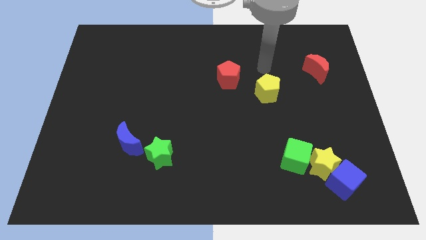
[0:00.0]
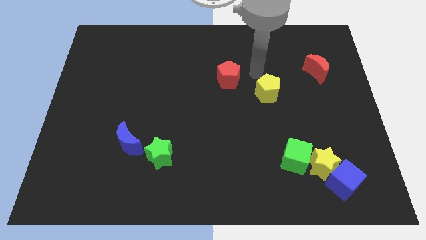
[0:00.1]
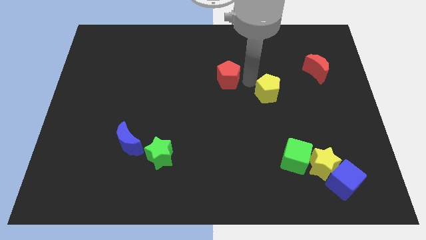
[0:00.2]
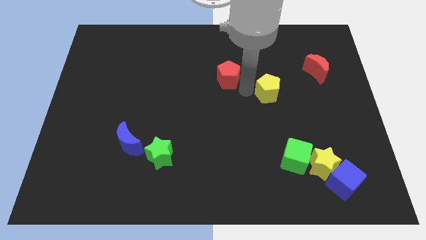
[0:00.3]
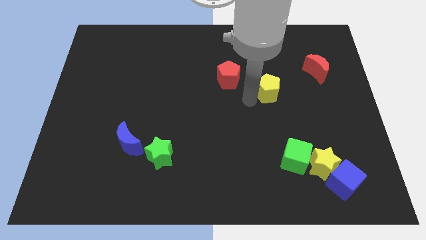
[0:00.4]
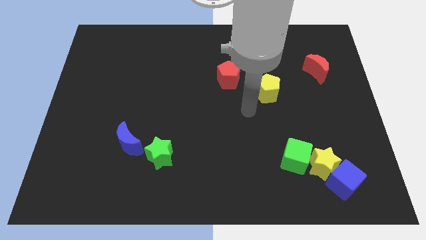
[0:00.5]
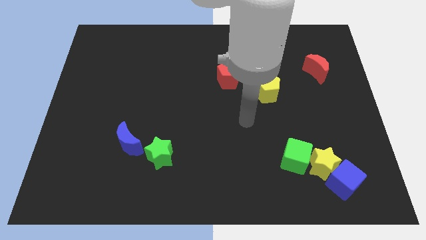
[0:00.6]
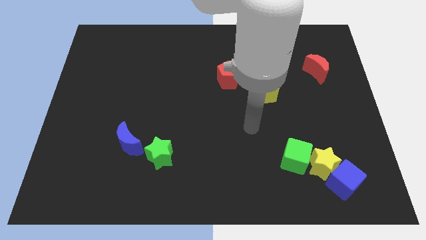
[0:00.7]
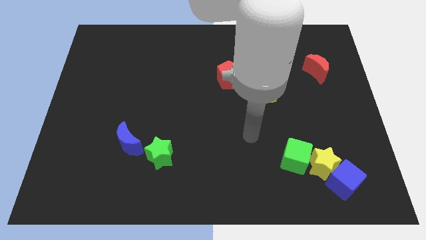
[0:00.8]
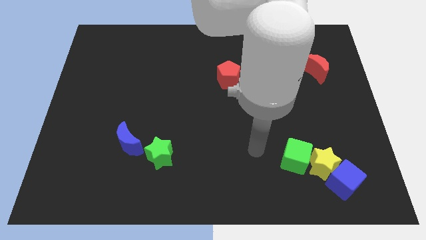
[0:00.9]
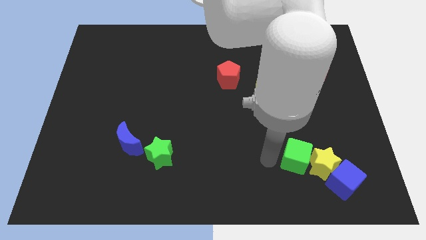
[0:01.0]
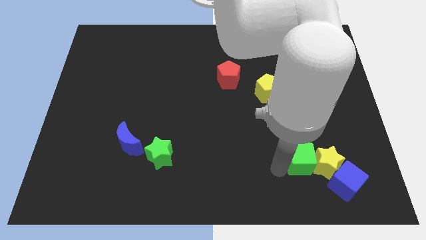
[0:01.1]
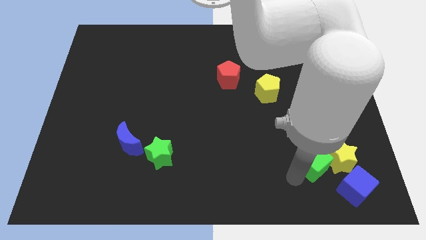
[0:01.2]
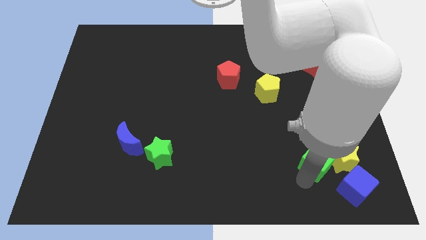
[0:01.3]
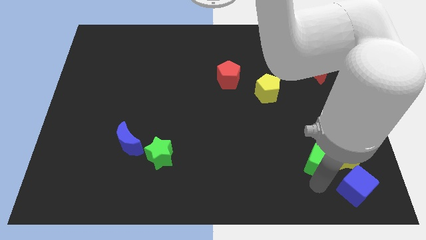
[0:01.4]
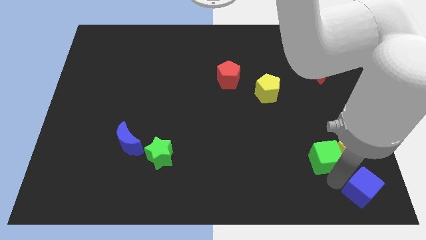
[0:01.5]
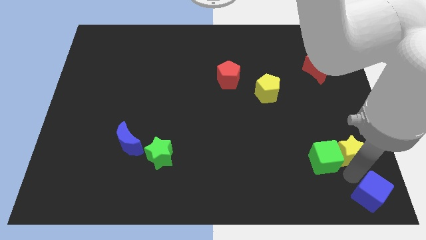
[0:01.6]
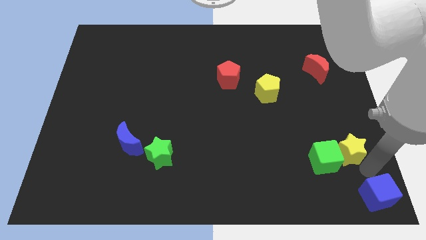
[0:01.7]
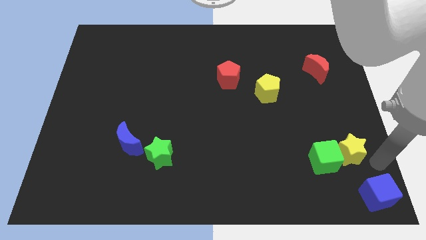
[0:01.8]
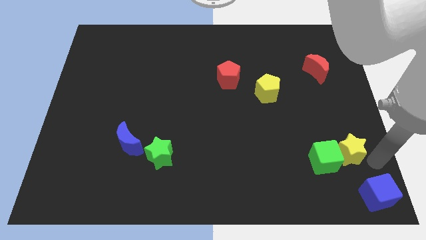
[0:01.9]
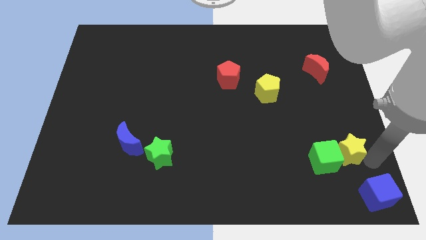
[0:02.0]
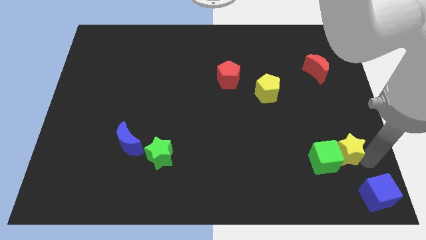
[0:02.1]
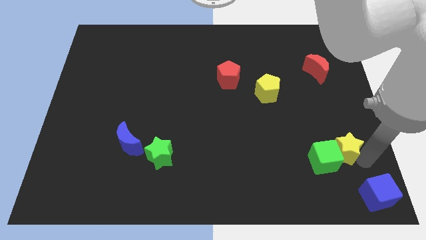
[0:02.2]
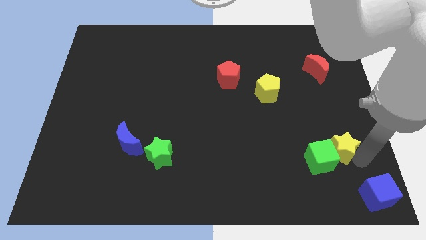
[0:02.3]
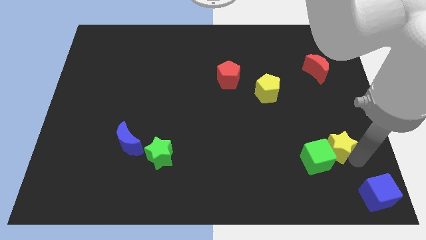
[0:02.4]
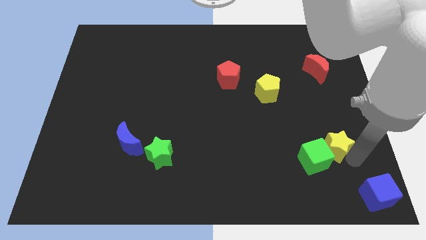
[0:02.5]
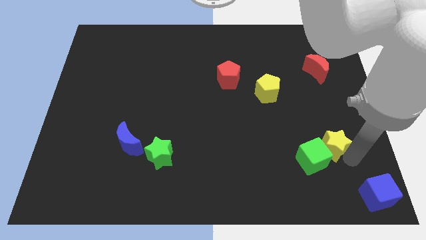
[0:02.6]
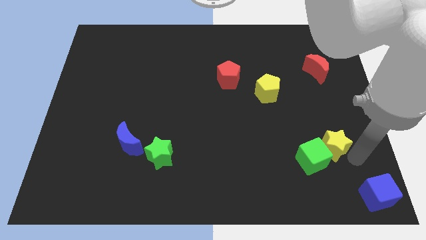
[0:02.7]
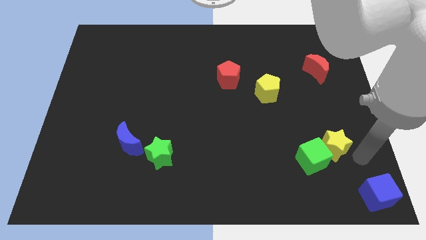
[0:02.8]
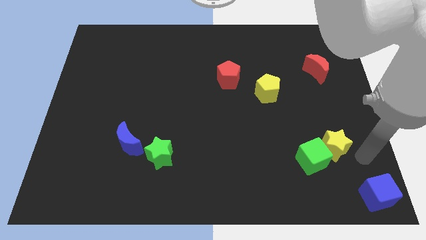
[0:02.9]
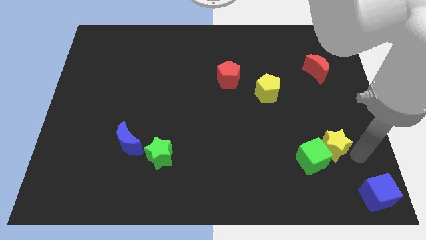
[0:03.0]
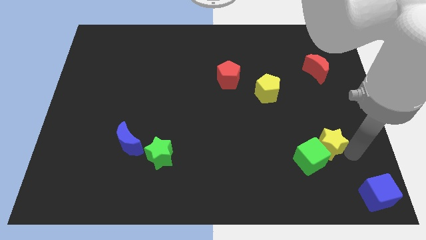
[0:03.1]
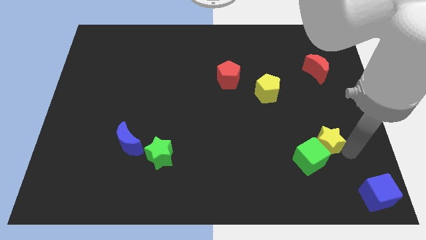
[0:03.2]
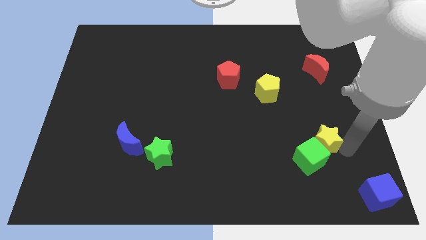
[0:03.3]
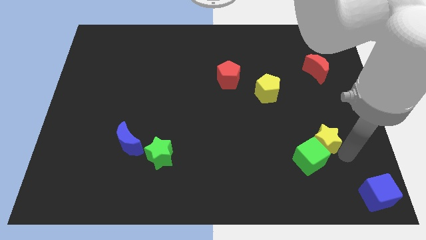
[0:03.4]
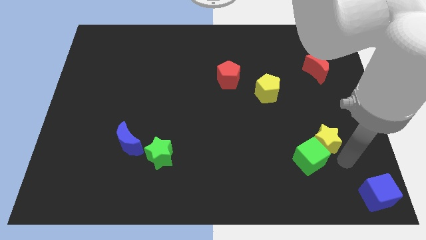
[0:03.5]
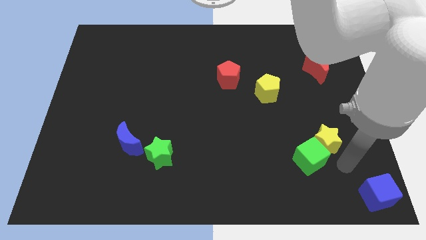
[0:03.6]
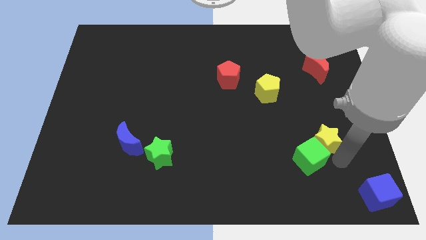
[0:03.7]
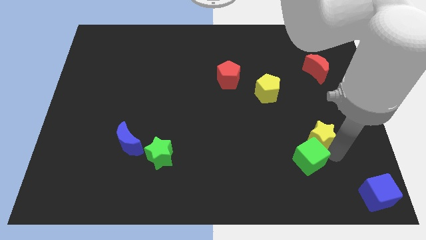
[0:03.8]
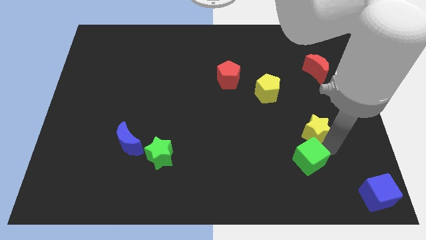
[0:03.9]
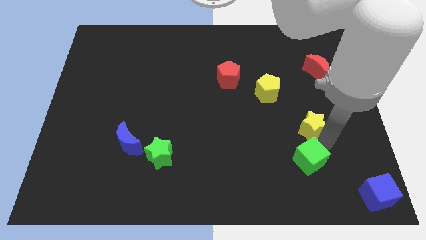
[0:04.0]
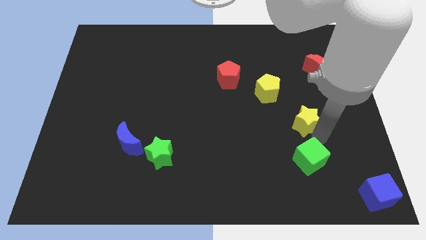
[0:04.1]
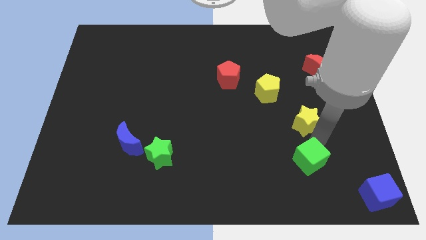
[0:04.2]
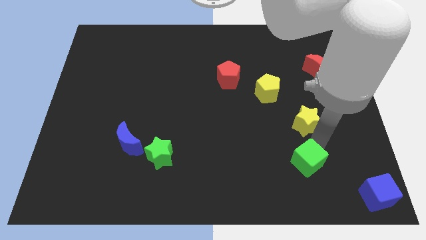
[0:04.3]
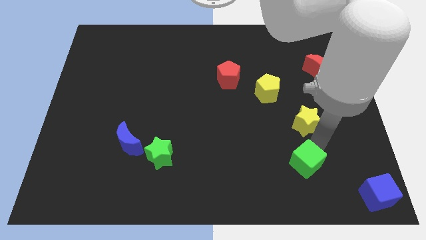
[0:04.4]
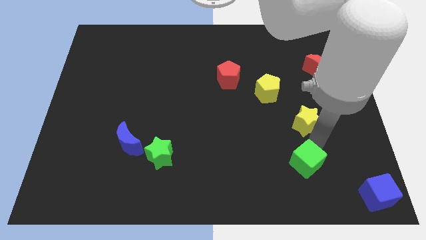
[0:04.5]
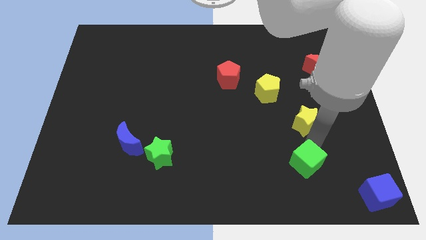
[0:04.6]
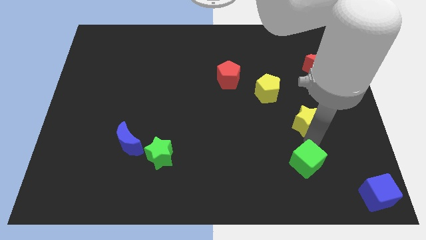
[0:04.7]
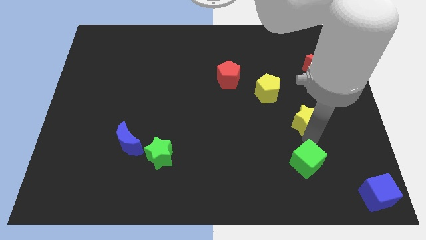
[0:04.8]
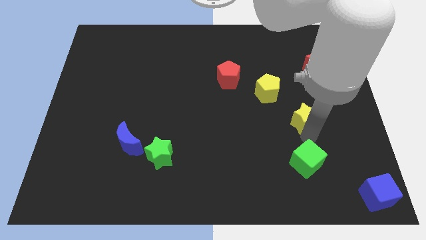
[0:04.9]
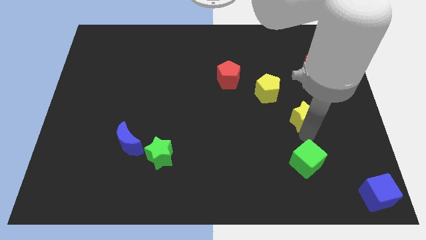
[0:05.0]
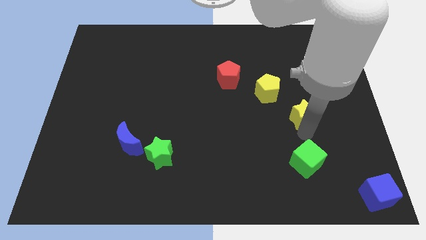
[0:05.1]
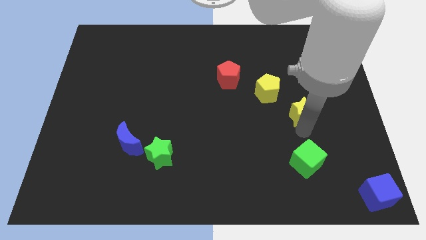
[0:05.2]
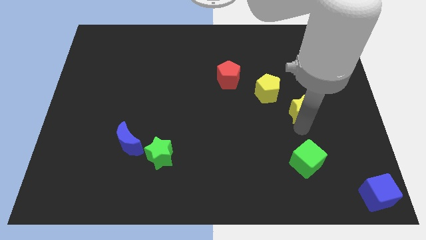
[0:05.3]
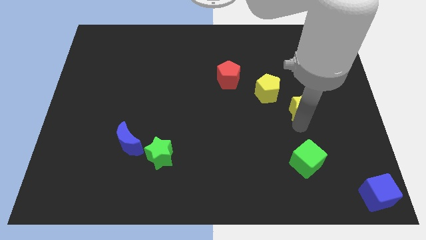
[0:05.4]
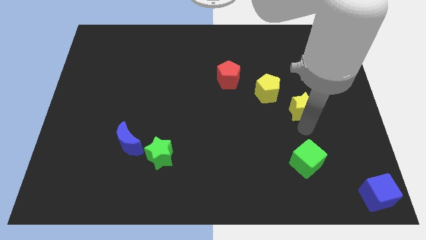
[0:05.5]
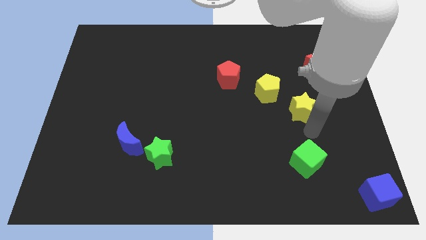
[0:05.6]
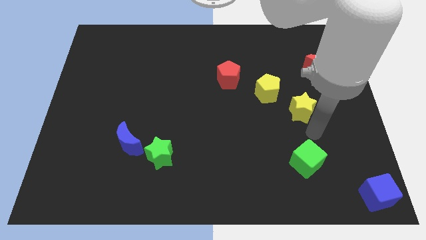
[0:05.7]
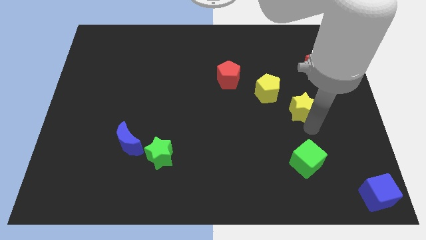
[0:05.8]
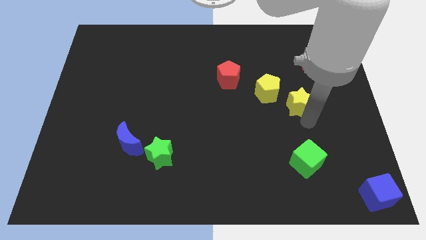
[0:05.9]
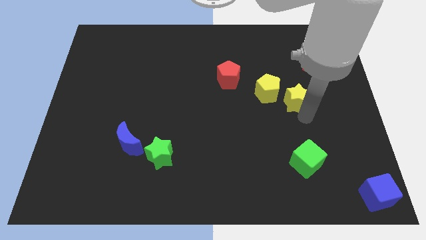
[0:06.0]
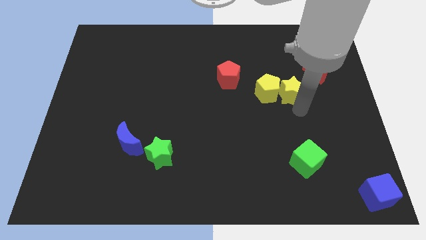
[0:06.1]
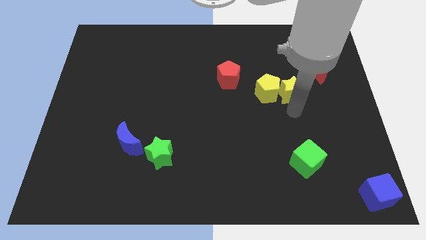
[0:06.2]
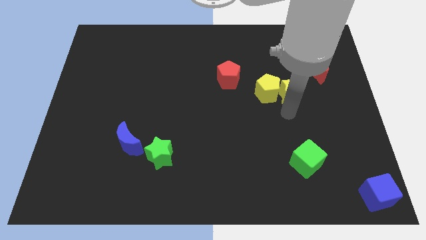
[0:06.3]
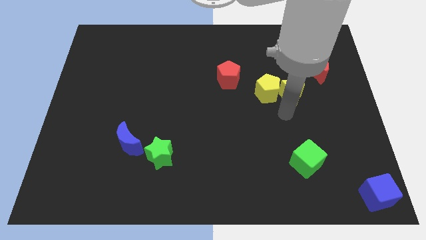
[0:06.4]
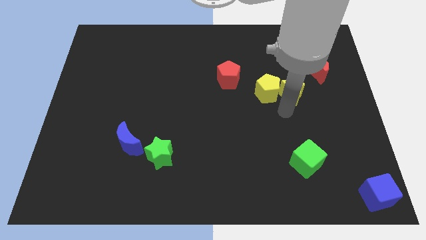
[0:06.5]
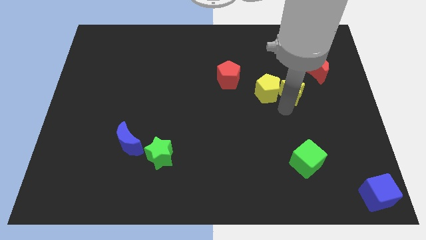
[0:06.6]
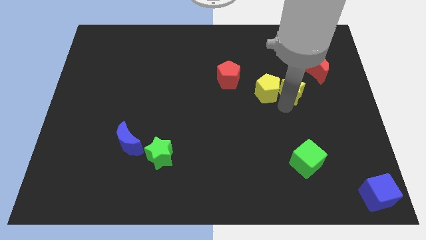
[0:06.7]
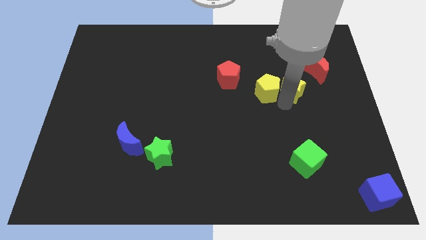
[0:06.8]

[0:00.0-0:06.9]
move the yellow star upwards

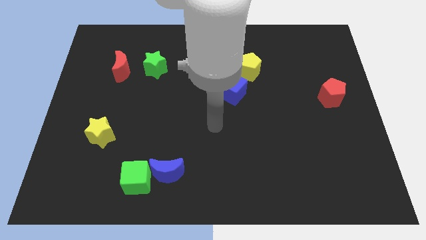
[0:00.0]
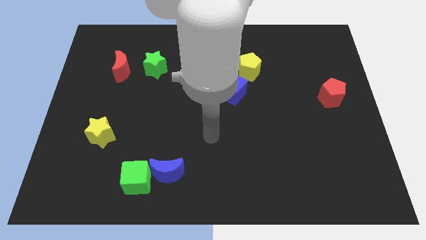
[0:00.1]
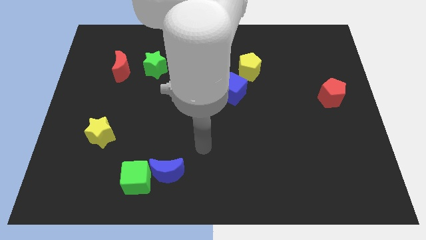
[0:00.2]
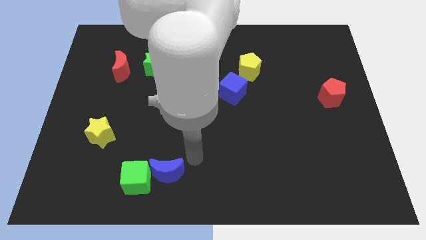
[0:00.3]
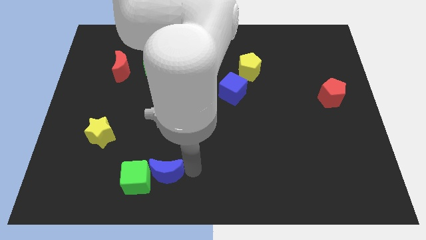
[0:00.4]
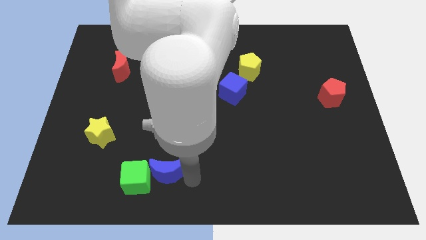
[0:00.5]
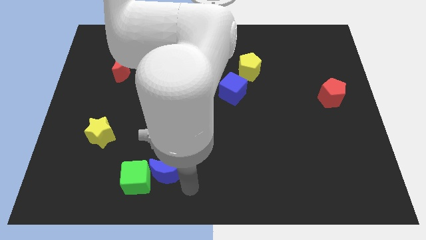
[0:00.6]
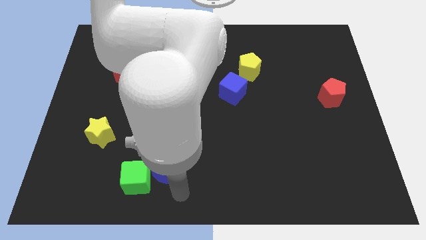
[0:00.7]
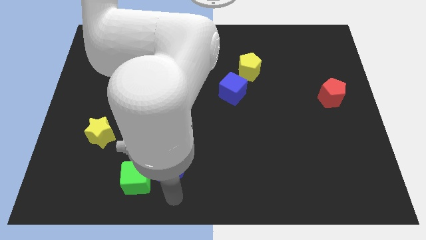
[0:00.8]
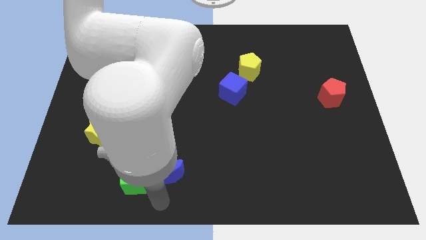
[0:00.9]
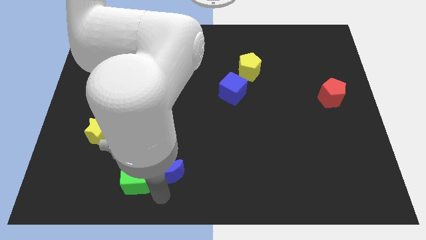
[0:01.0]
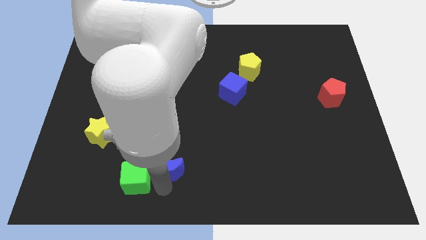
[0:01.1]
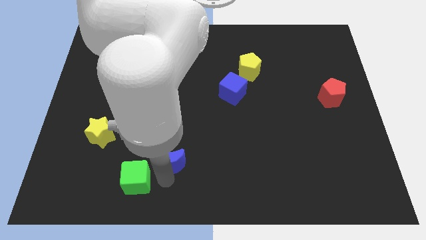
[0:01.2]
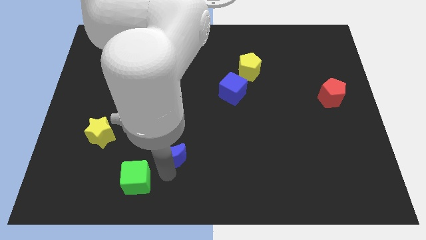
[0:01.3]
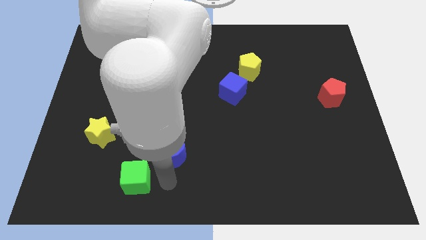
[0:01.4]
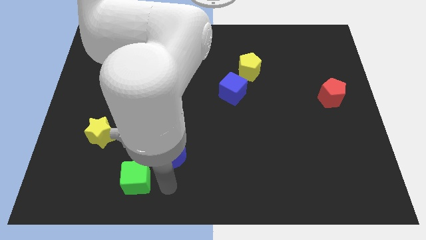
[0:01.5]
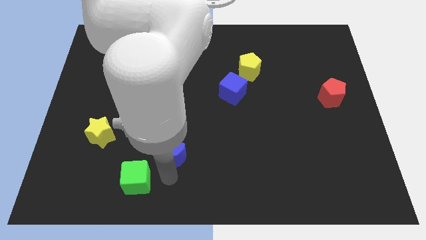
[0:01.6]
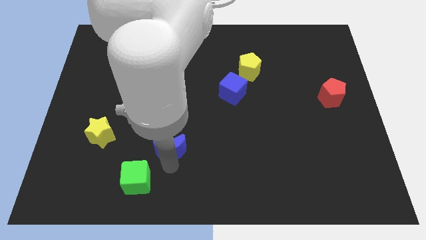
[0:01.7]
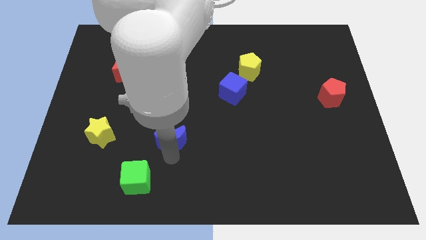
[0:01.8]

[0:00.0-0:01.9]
push the blue moon upwards a little bit
